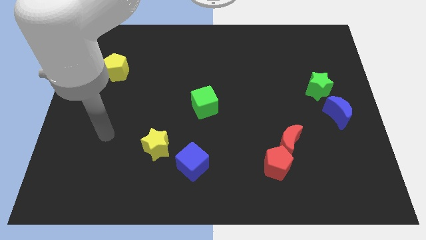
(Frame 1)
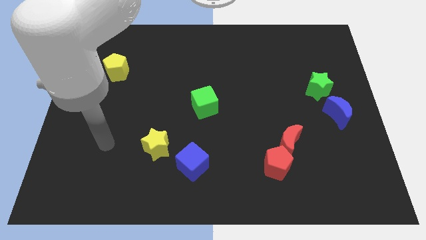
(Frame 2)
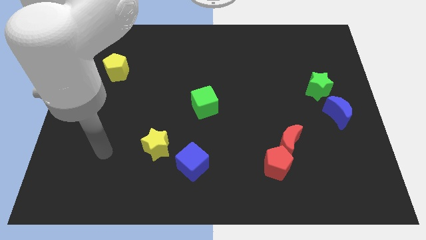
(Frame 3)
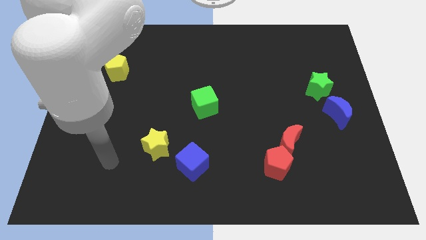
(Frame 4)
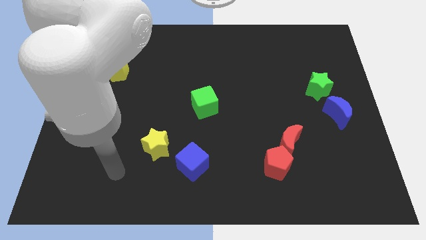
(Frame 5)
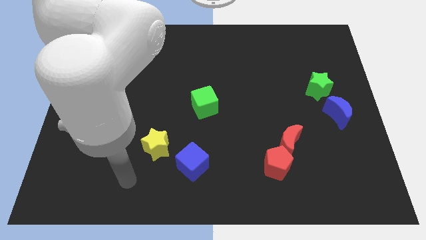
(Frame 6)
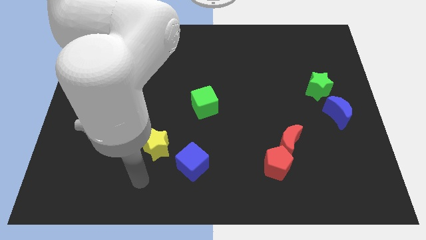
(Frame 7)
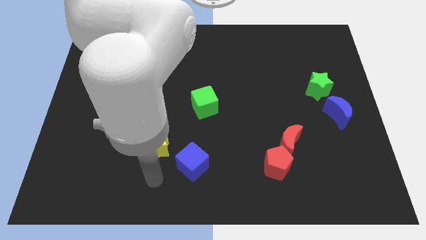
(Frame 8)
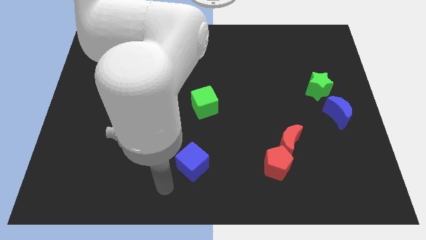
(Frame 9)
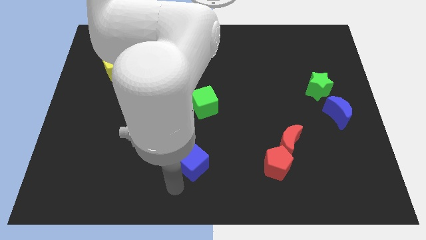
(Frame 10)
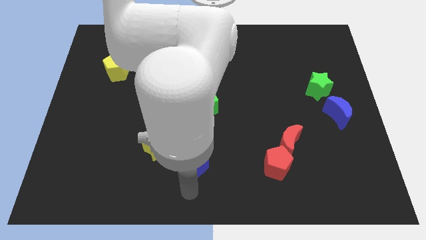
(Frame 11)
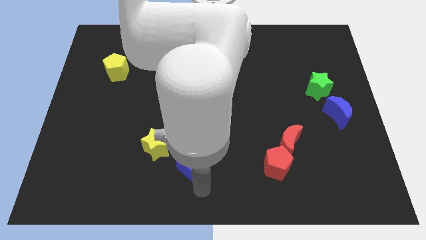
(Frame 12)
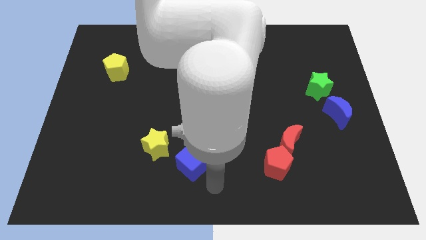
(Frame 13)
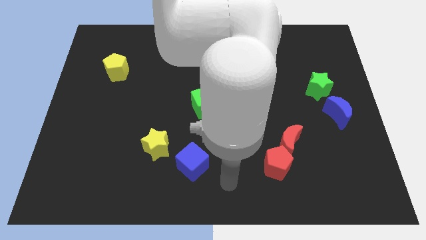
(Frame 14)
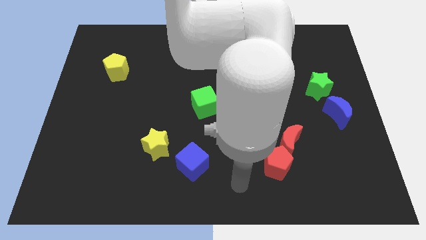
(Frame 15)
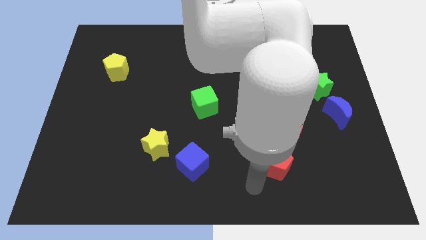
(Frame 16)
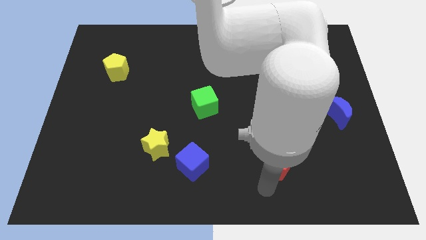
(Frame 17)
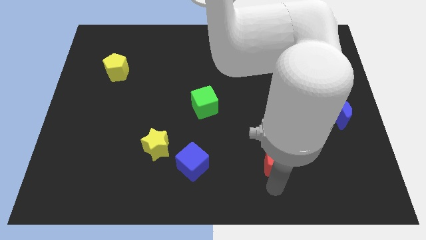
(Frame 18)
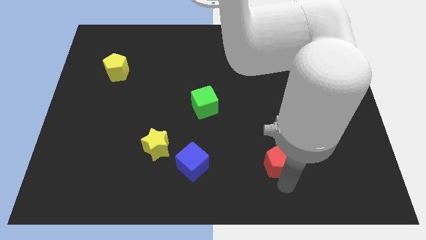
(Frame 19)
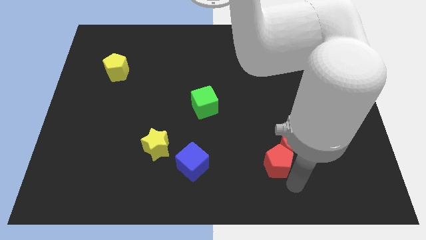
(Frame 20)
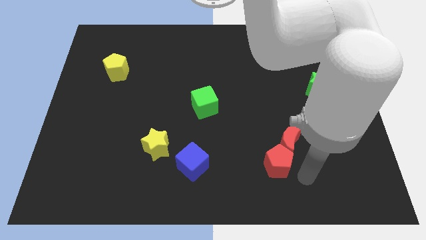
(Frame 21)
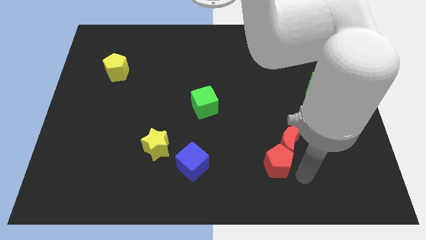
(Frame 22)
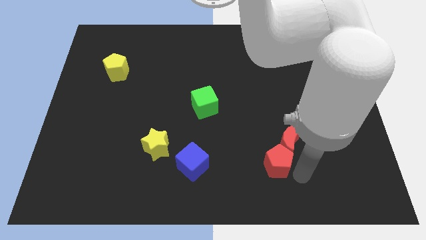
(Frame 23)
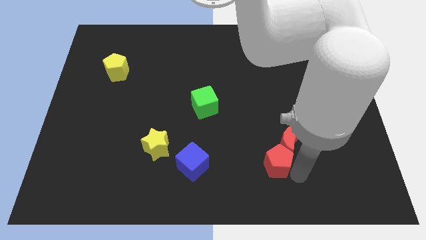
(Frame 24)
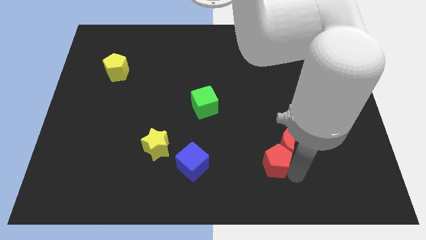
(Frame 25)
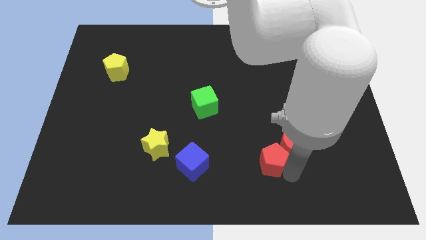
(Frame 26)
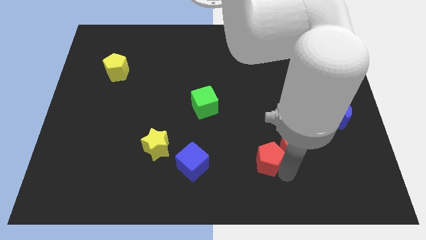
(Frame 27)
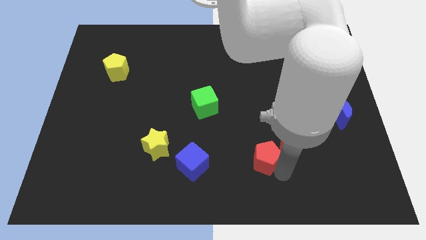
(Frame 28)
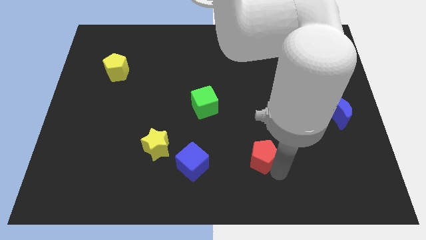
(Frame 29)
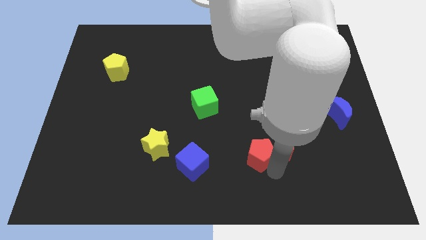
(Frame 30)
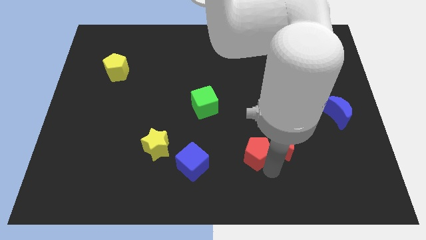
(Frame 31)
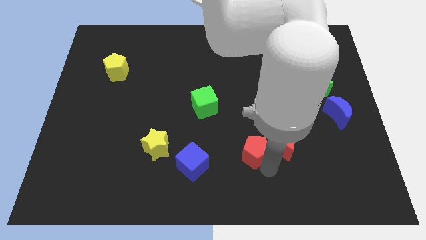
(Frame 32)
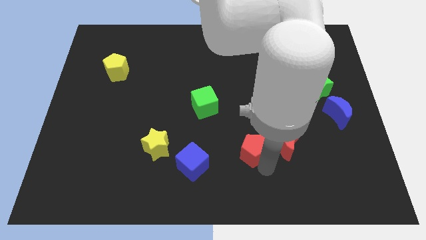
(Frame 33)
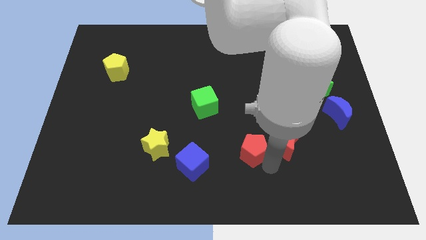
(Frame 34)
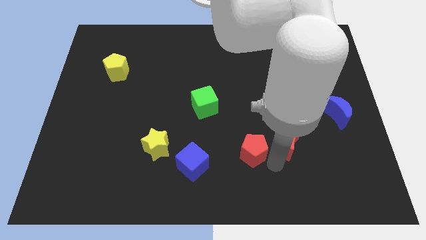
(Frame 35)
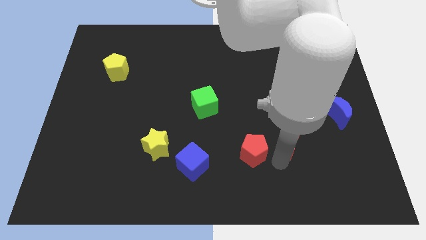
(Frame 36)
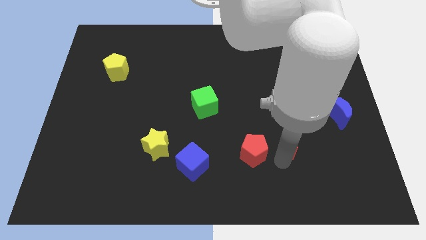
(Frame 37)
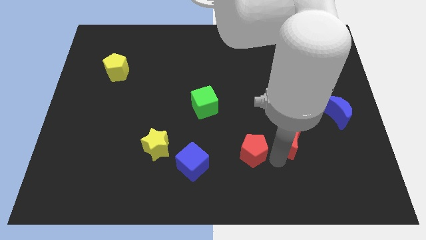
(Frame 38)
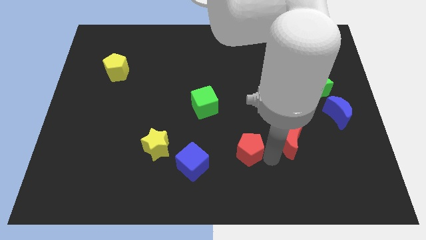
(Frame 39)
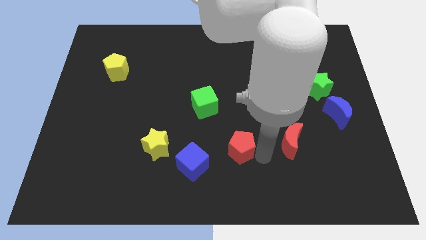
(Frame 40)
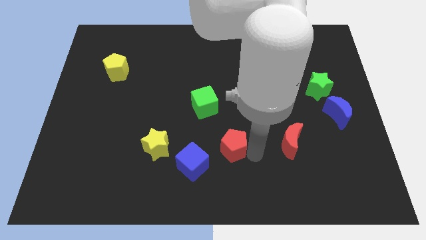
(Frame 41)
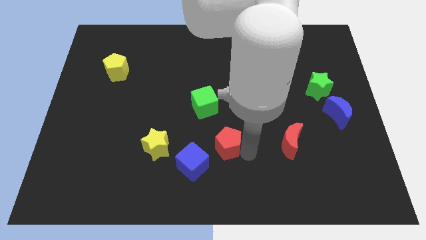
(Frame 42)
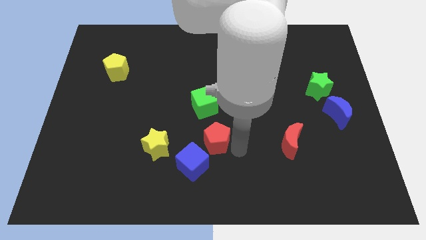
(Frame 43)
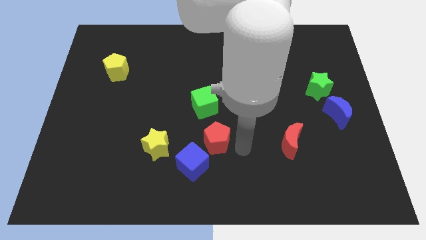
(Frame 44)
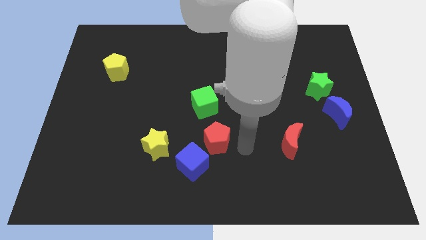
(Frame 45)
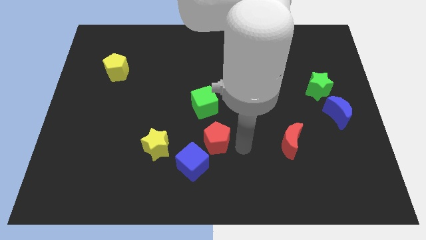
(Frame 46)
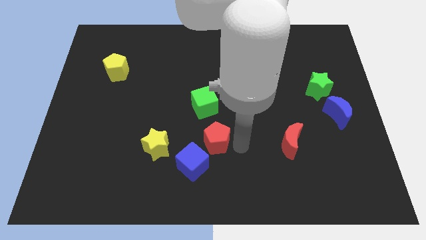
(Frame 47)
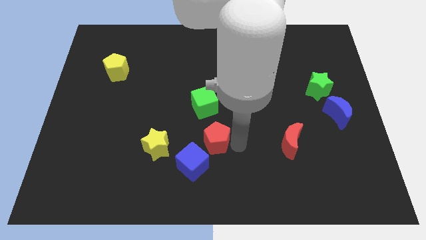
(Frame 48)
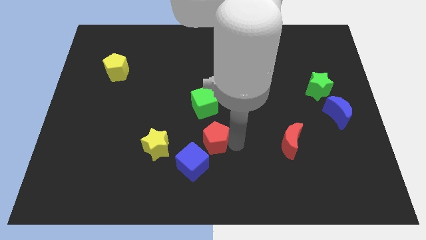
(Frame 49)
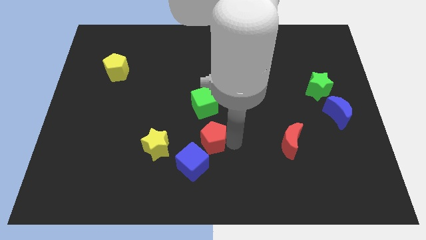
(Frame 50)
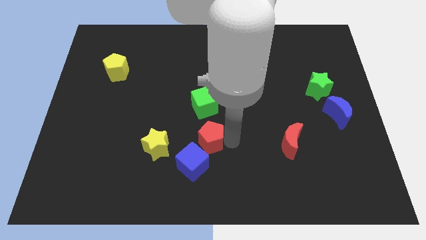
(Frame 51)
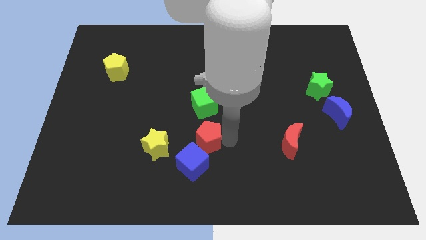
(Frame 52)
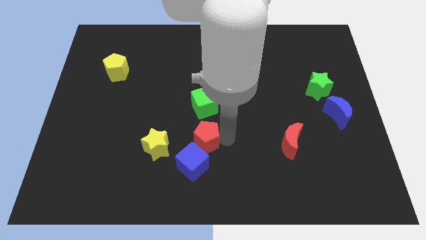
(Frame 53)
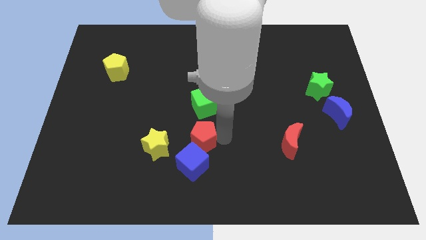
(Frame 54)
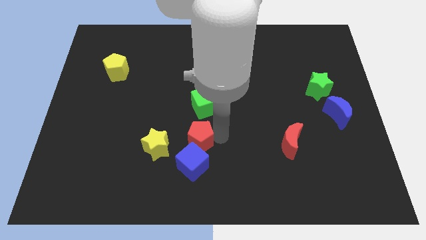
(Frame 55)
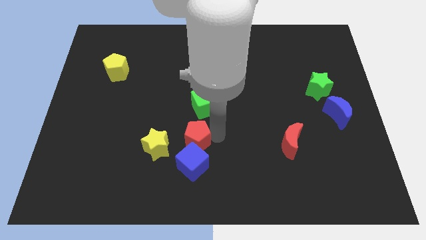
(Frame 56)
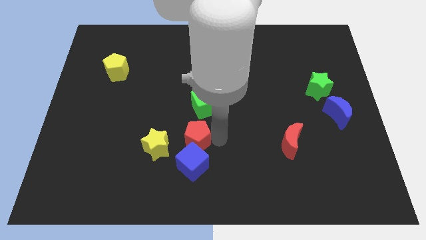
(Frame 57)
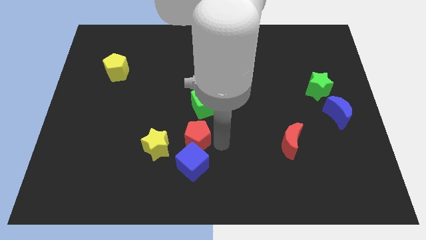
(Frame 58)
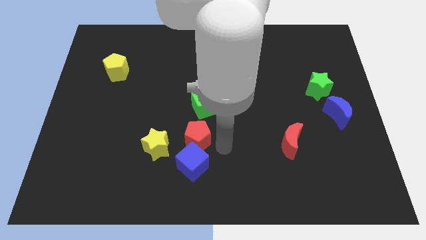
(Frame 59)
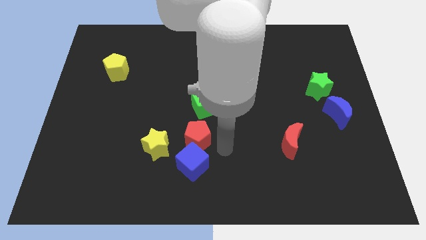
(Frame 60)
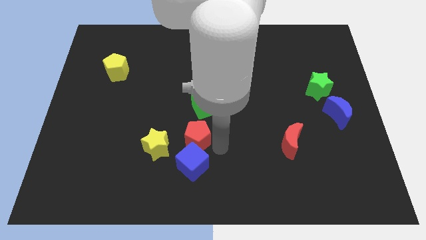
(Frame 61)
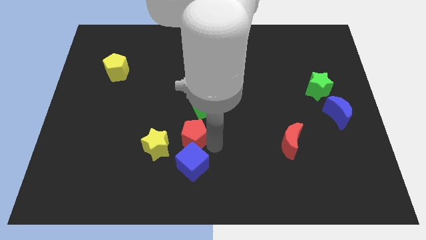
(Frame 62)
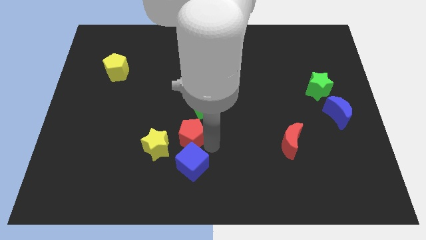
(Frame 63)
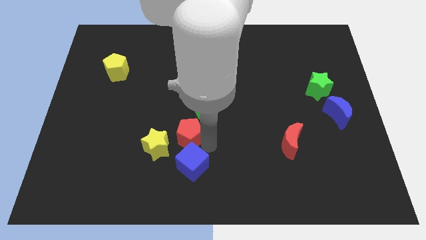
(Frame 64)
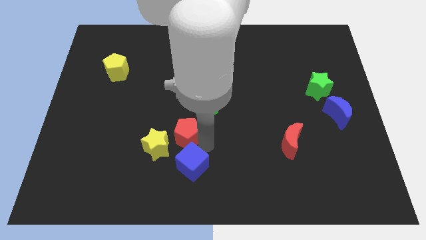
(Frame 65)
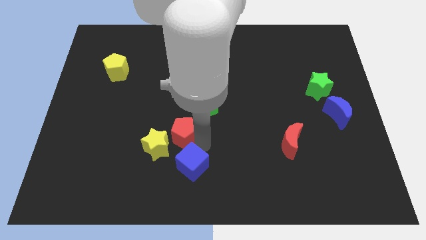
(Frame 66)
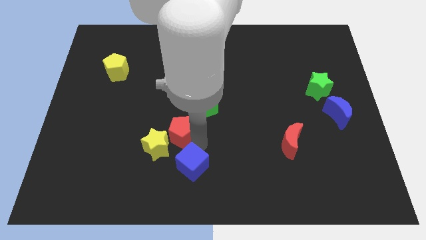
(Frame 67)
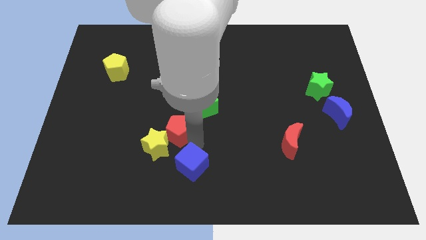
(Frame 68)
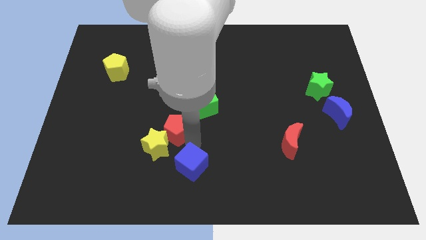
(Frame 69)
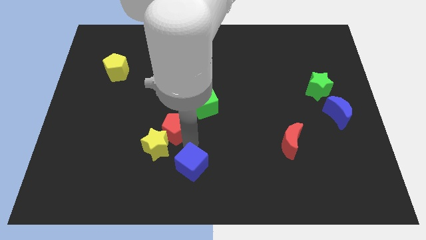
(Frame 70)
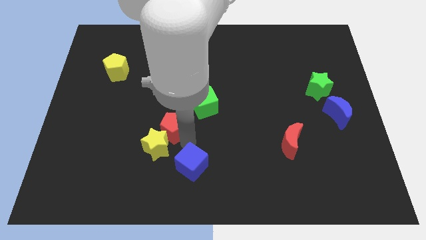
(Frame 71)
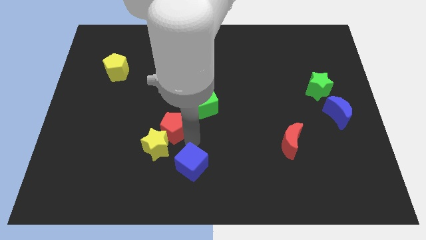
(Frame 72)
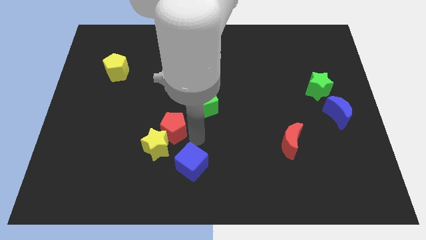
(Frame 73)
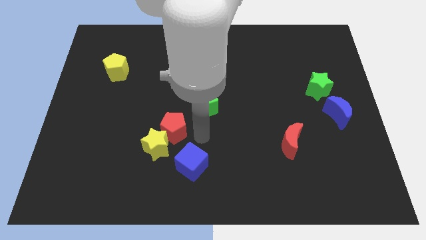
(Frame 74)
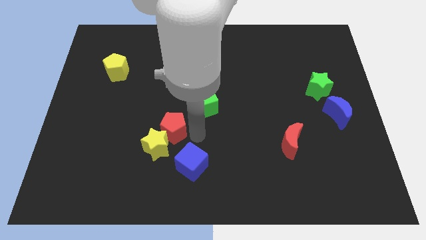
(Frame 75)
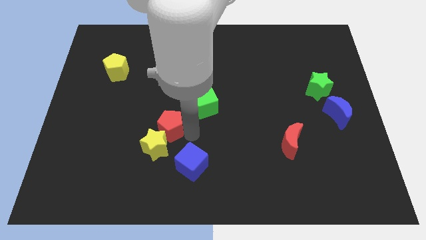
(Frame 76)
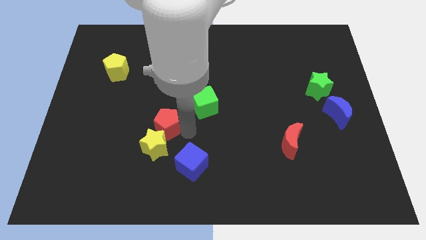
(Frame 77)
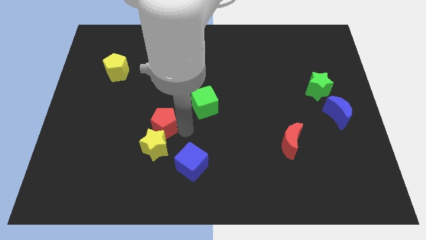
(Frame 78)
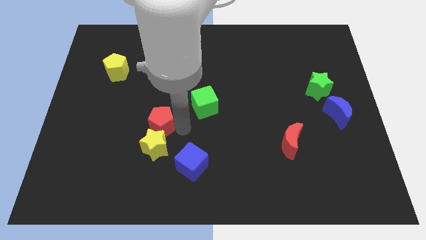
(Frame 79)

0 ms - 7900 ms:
put the red pentagon diagonally up and to the left of the yellow star
